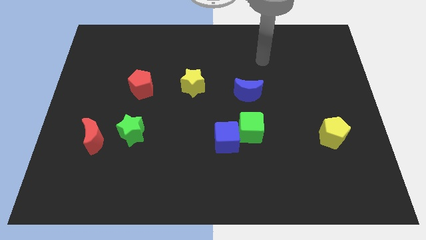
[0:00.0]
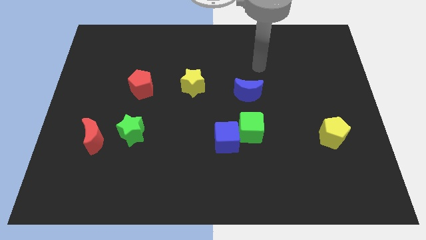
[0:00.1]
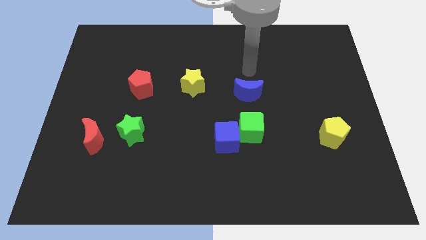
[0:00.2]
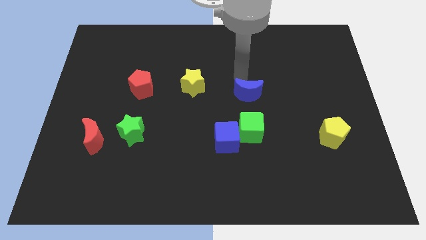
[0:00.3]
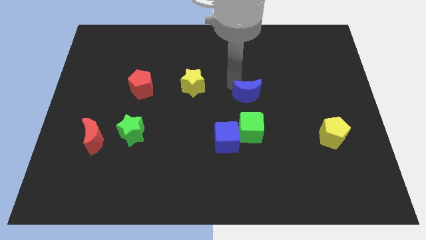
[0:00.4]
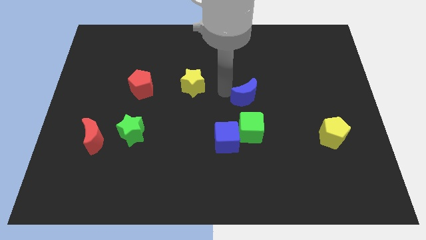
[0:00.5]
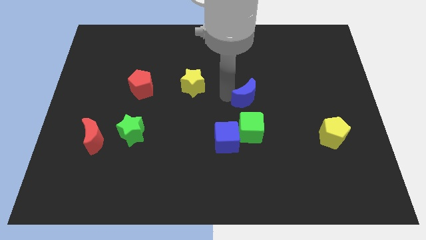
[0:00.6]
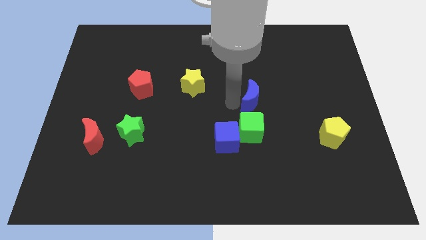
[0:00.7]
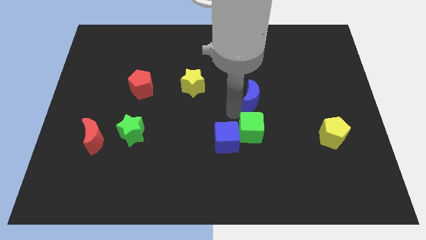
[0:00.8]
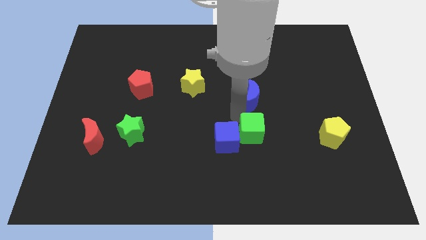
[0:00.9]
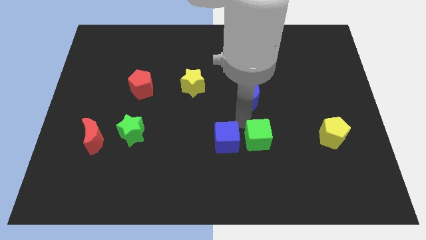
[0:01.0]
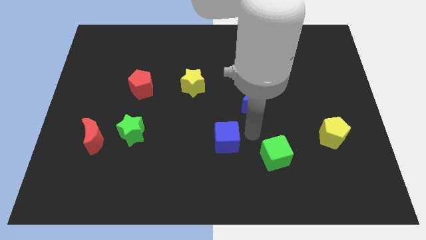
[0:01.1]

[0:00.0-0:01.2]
move the blue cube away from the green cube

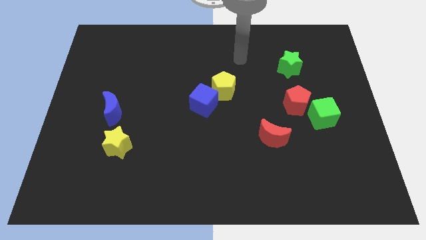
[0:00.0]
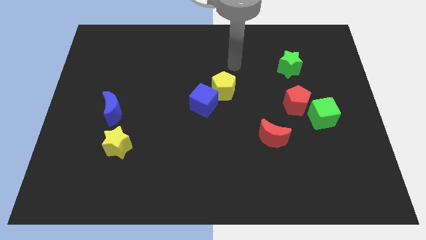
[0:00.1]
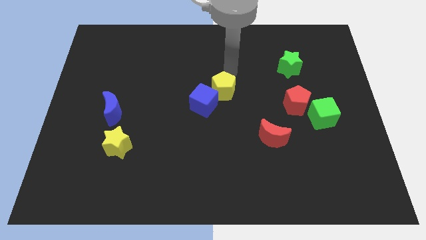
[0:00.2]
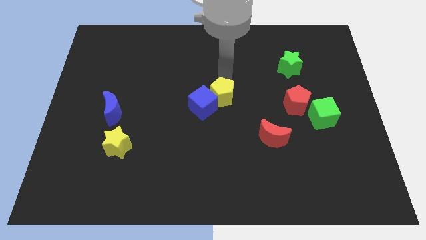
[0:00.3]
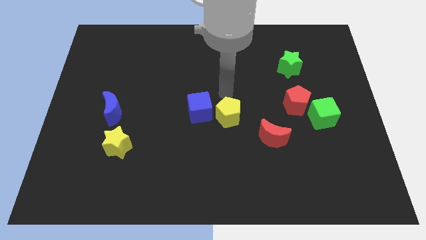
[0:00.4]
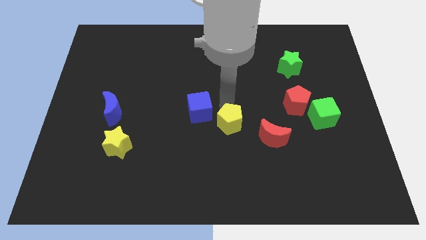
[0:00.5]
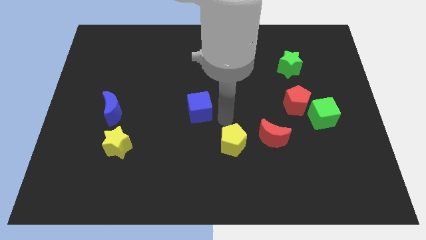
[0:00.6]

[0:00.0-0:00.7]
move the blue cube away from the yellow pentagon

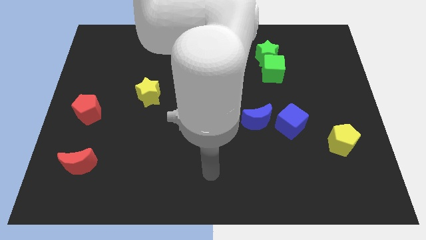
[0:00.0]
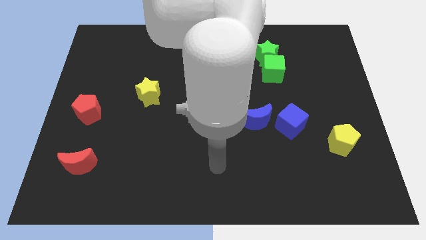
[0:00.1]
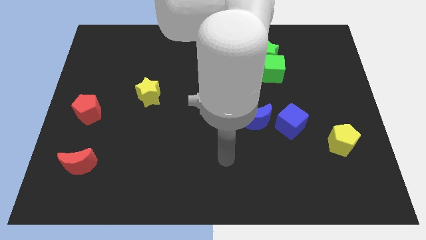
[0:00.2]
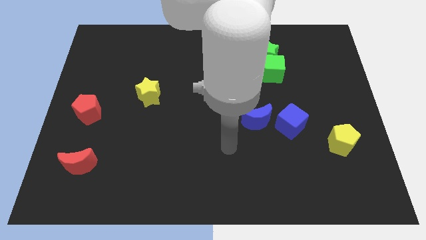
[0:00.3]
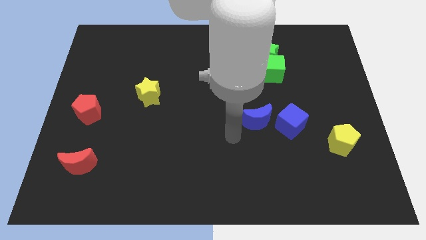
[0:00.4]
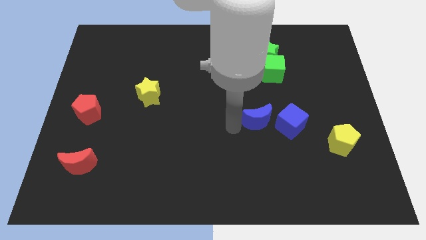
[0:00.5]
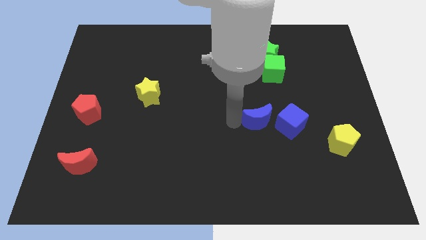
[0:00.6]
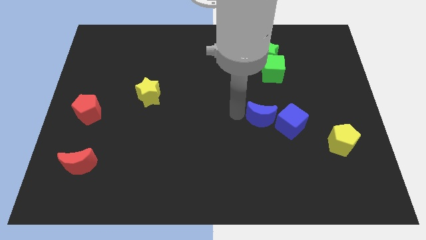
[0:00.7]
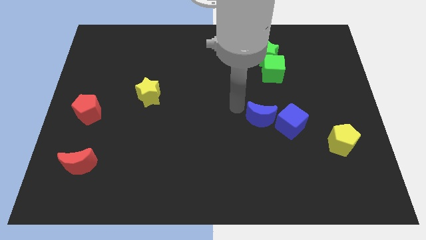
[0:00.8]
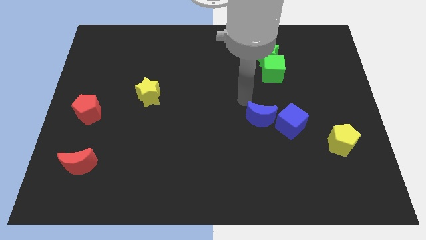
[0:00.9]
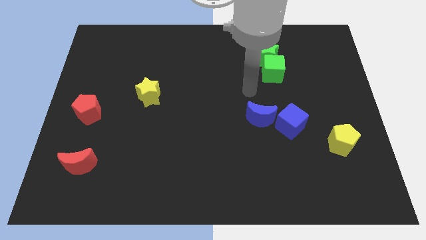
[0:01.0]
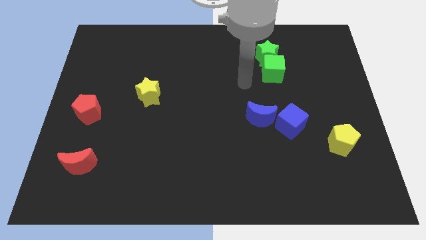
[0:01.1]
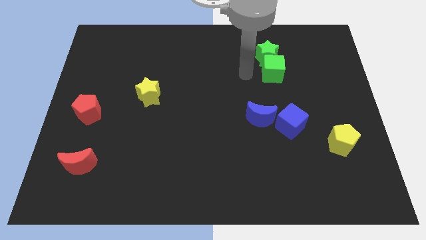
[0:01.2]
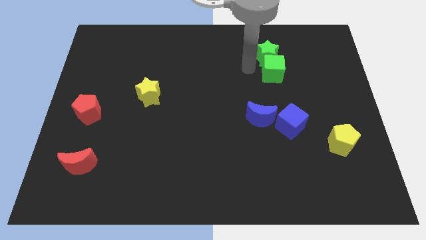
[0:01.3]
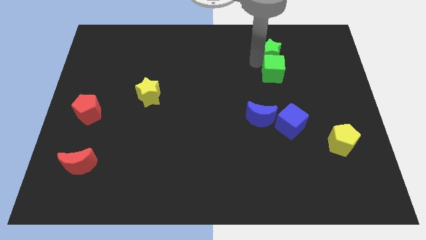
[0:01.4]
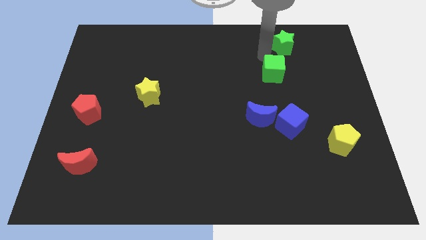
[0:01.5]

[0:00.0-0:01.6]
move the green cube away from the green star

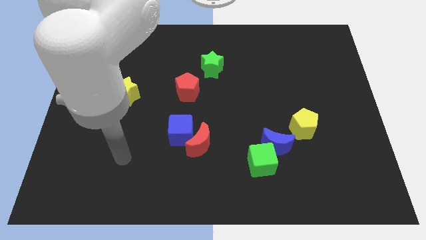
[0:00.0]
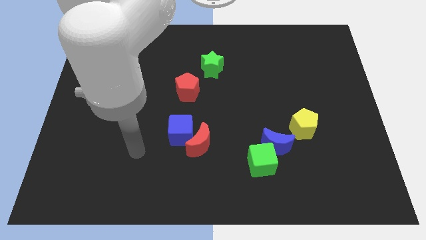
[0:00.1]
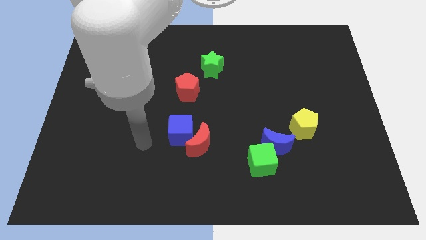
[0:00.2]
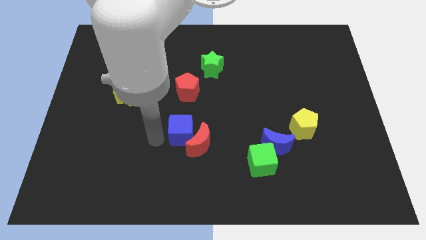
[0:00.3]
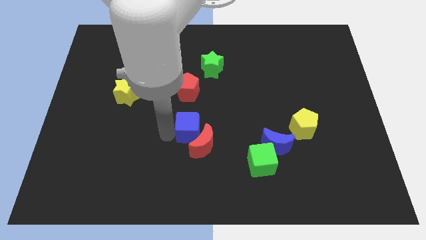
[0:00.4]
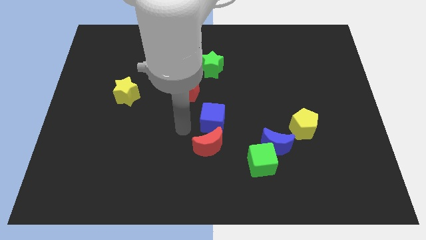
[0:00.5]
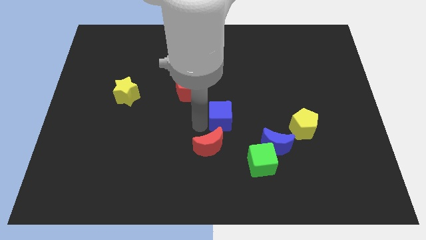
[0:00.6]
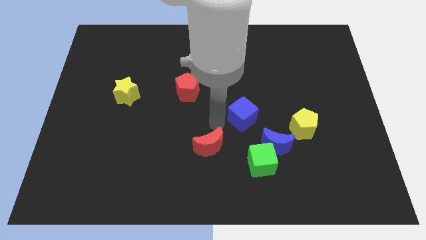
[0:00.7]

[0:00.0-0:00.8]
separate the red moon from the blue cube

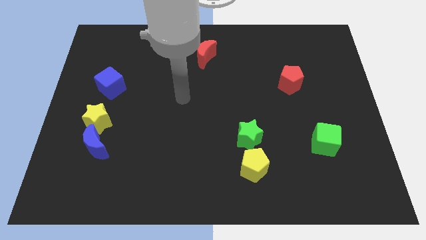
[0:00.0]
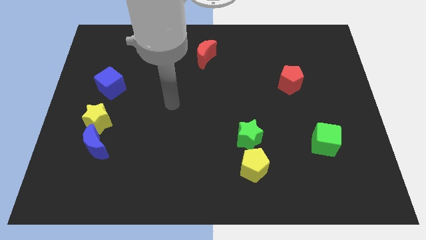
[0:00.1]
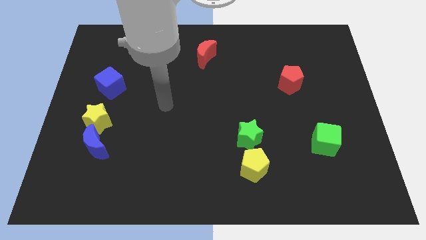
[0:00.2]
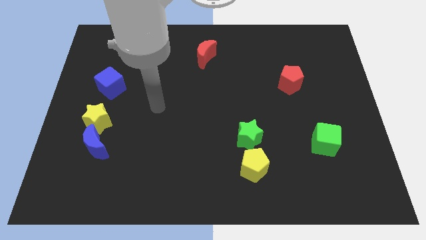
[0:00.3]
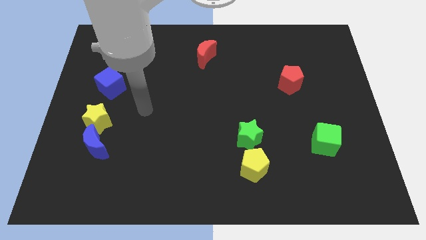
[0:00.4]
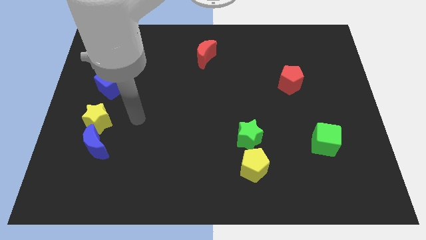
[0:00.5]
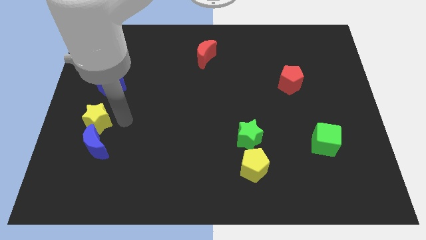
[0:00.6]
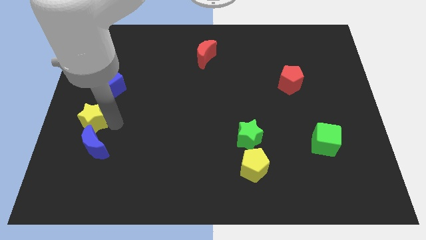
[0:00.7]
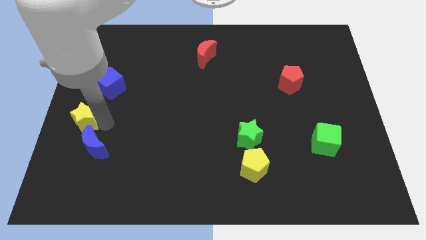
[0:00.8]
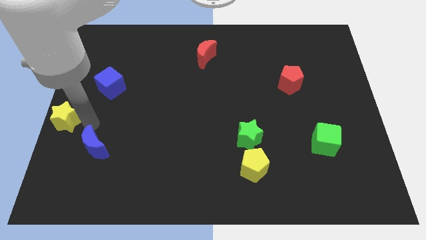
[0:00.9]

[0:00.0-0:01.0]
move the blue moon away from the yellow star

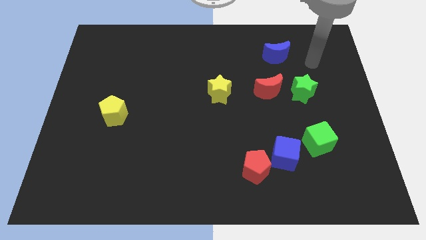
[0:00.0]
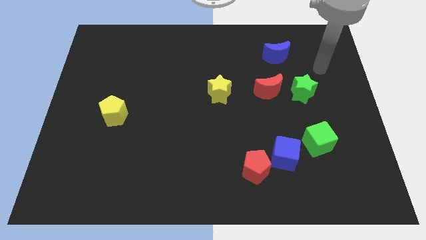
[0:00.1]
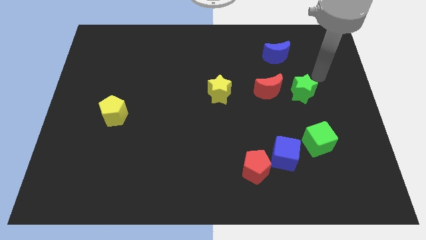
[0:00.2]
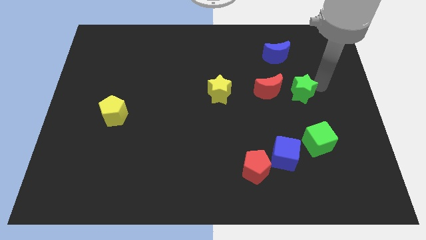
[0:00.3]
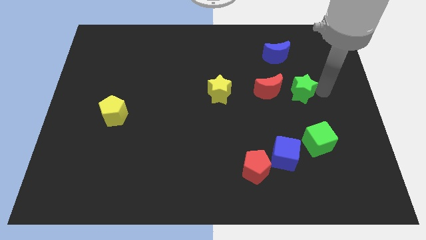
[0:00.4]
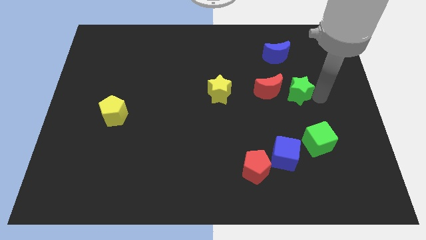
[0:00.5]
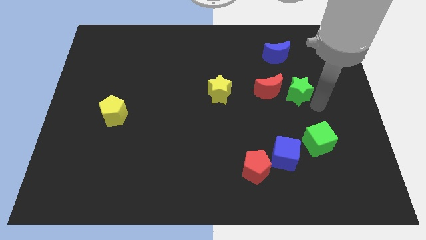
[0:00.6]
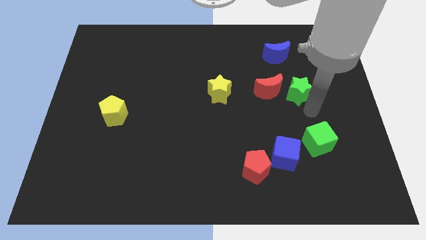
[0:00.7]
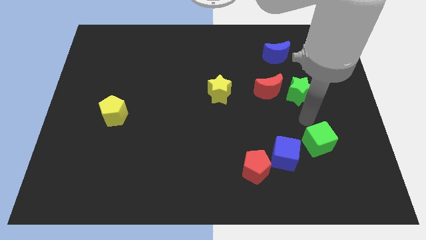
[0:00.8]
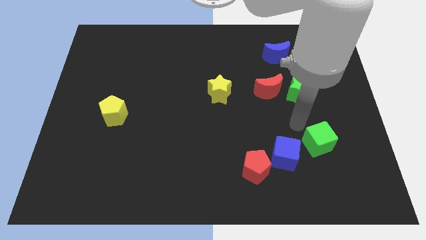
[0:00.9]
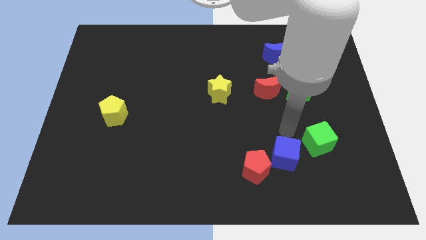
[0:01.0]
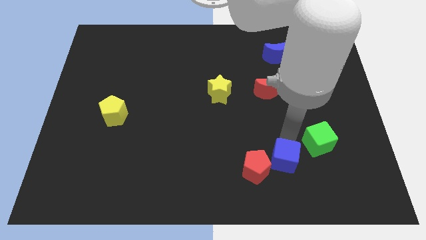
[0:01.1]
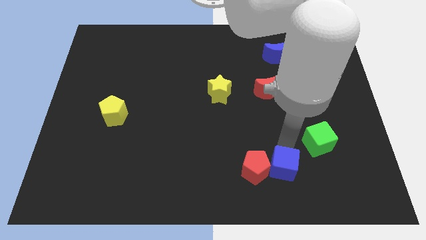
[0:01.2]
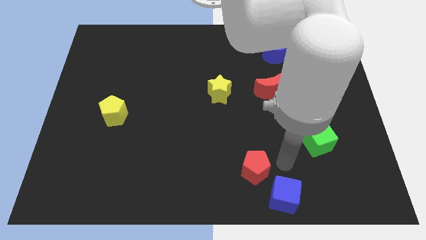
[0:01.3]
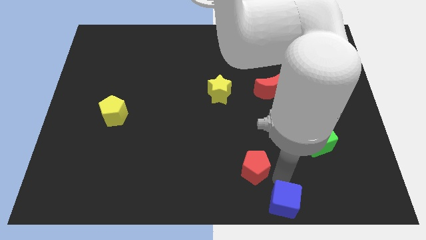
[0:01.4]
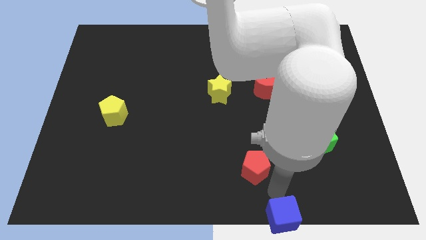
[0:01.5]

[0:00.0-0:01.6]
separate the red pentagon from the blue cube

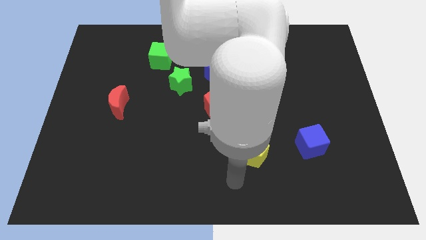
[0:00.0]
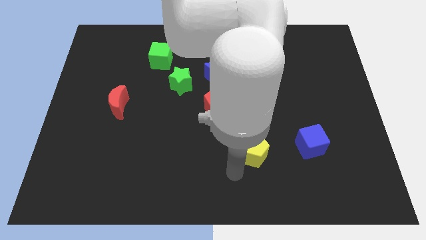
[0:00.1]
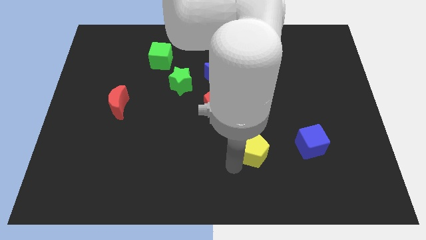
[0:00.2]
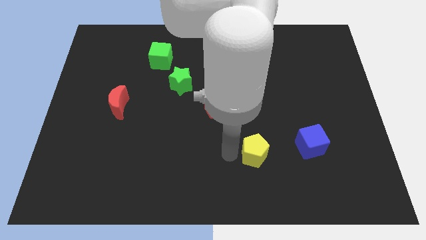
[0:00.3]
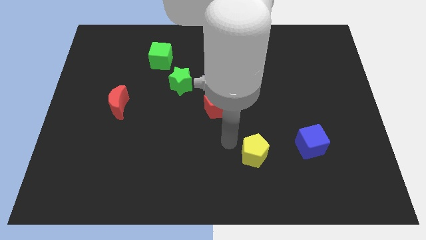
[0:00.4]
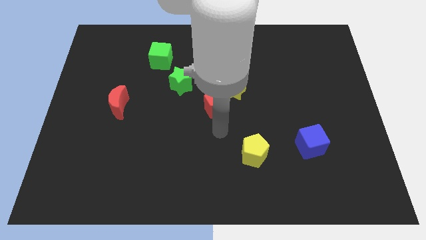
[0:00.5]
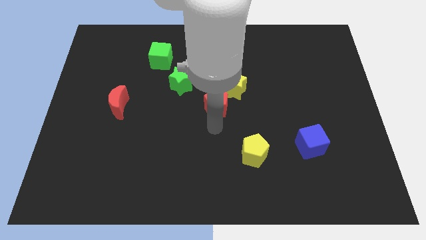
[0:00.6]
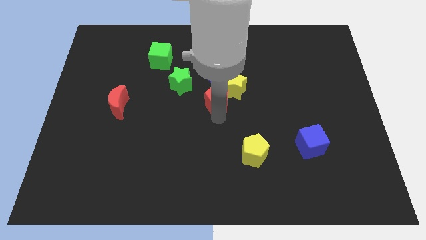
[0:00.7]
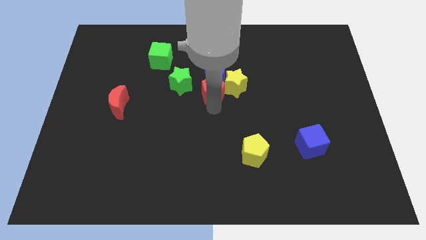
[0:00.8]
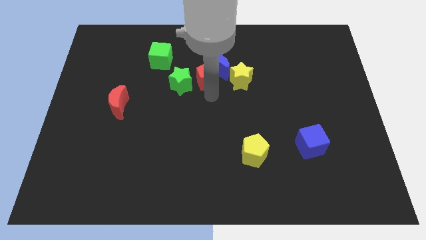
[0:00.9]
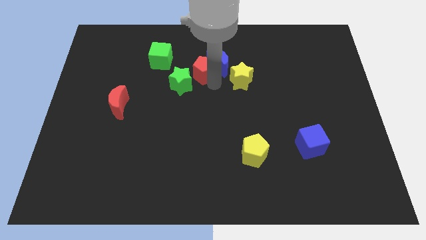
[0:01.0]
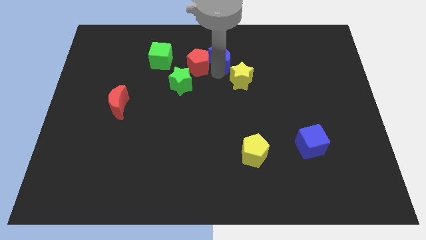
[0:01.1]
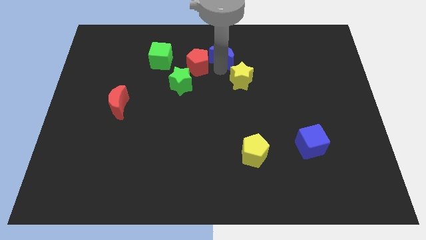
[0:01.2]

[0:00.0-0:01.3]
pull the yellow star apart from the blue moon and red pentagon

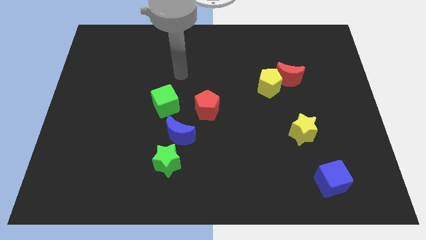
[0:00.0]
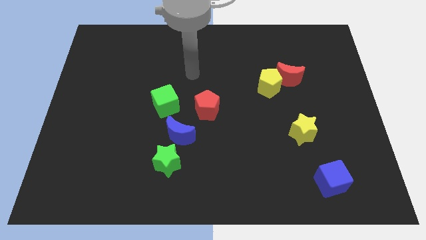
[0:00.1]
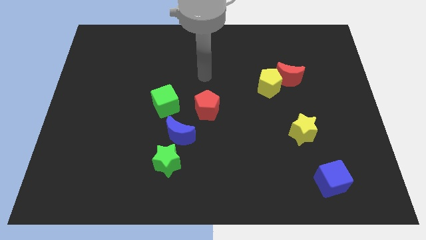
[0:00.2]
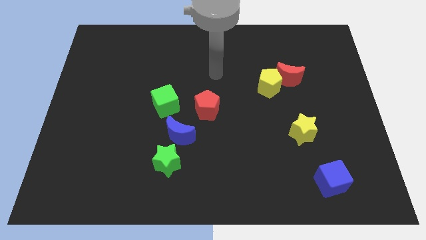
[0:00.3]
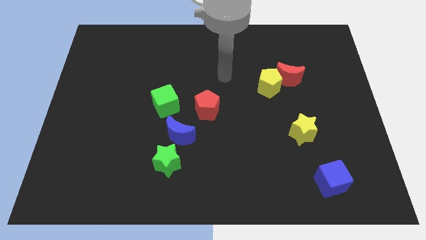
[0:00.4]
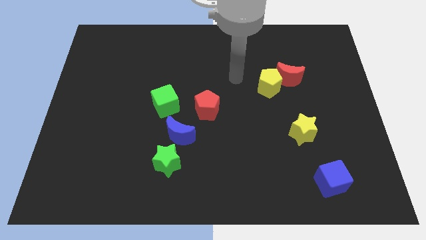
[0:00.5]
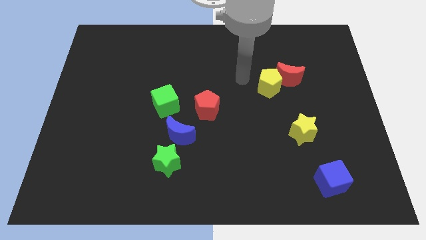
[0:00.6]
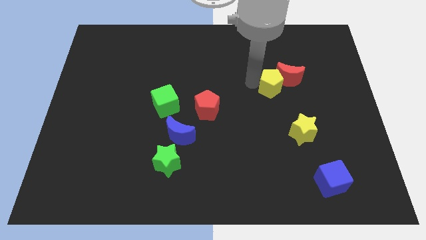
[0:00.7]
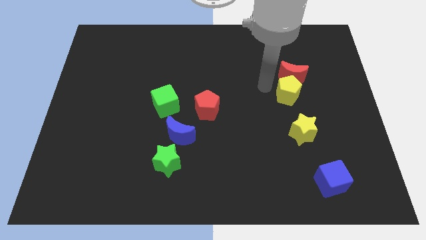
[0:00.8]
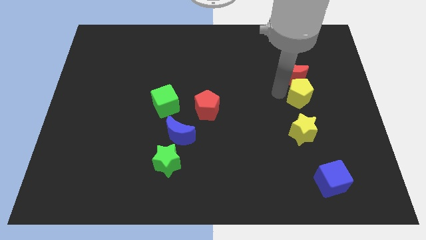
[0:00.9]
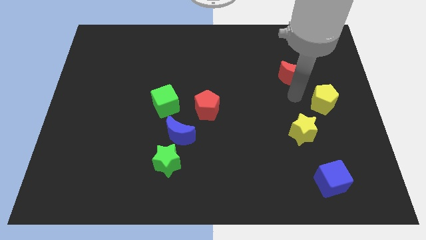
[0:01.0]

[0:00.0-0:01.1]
move the red moon away from the yellow pentagon
